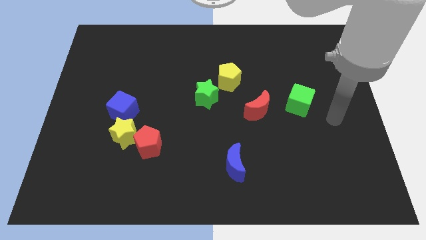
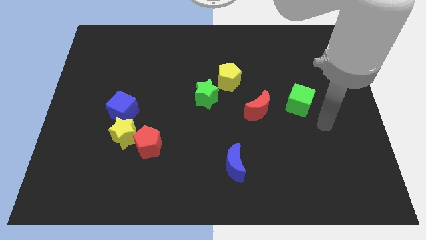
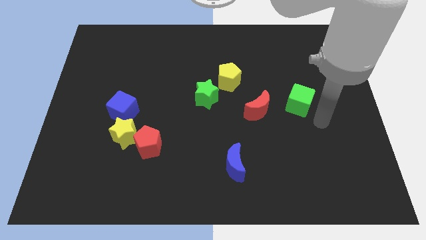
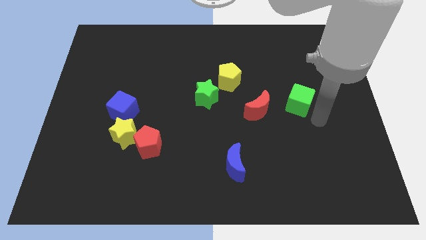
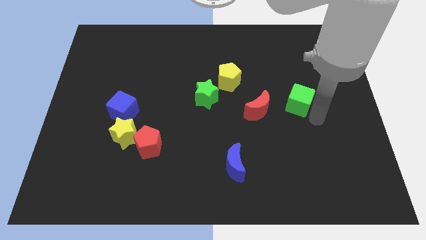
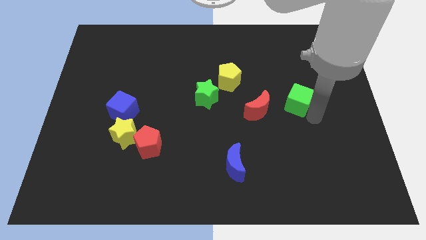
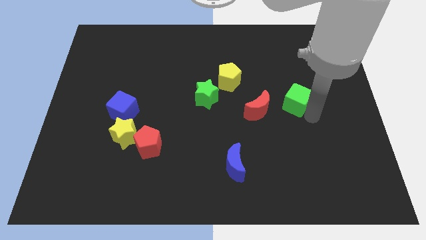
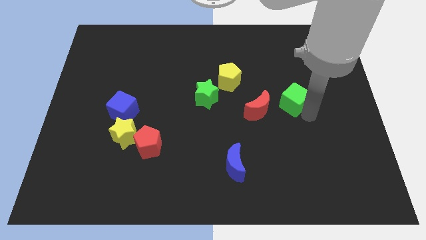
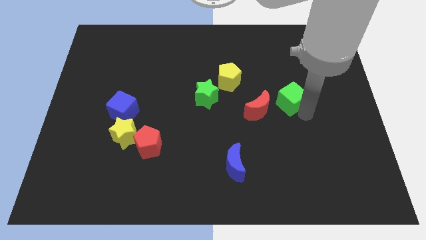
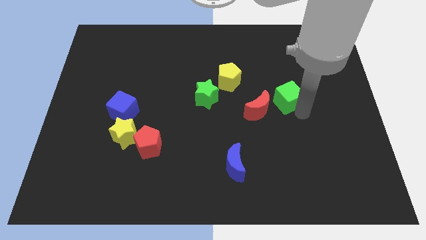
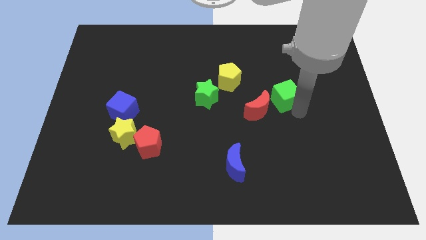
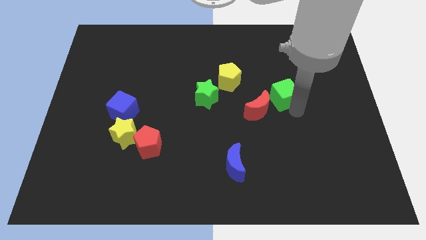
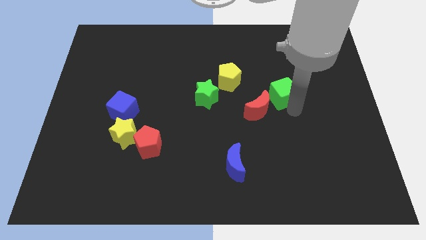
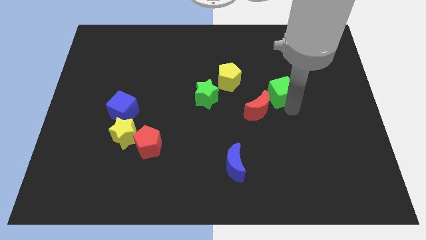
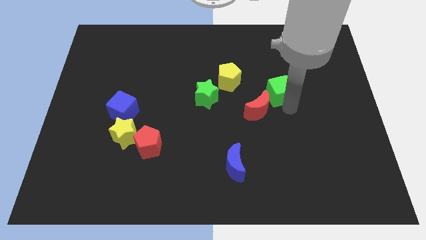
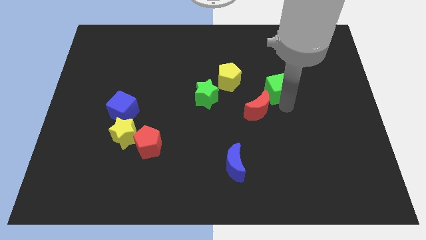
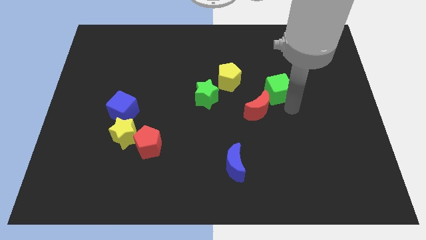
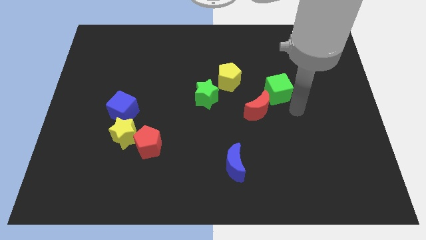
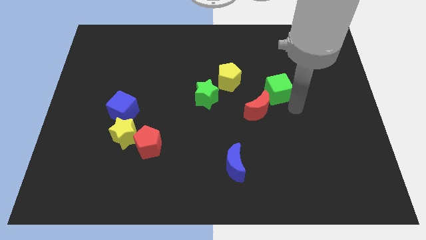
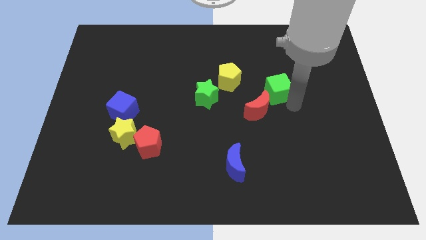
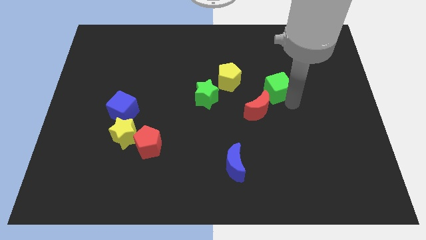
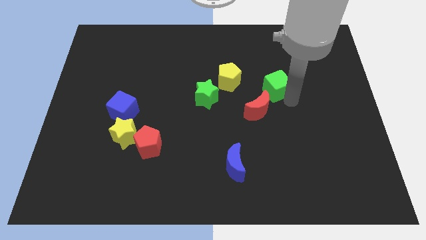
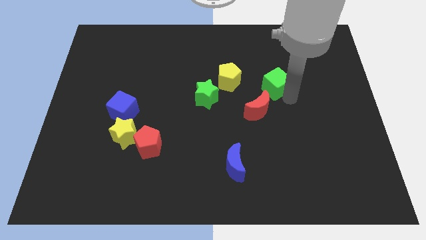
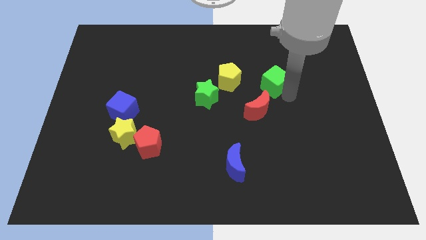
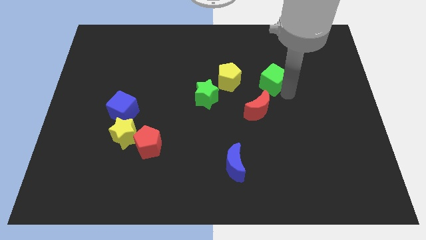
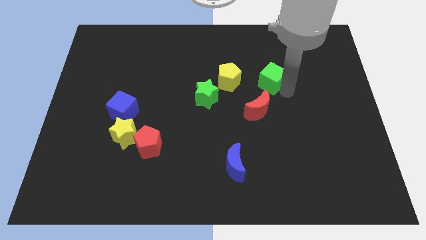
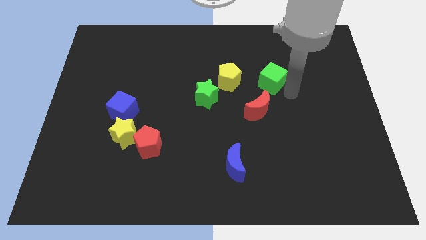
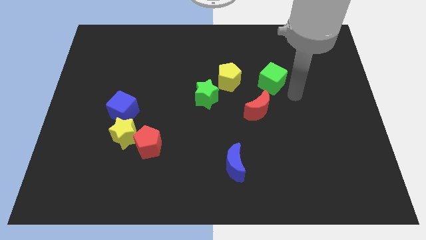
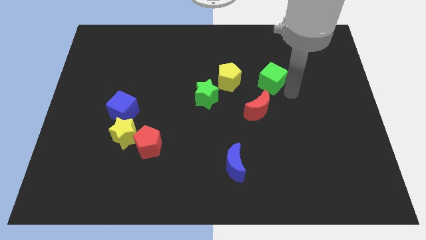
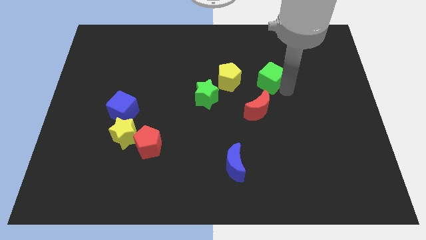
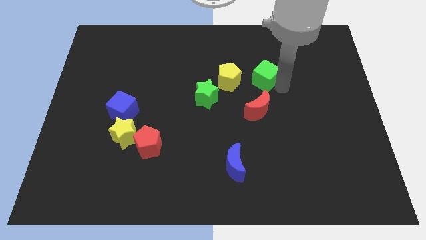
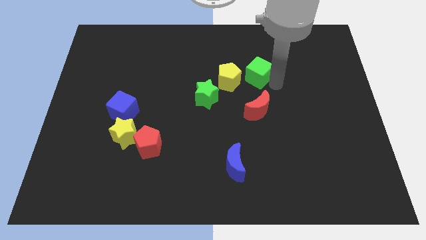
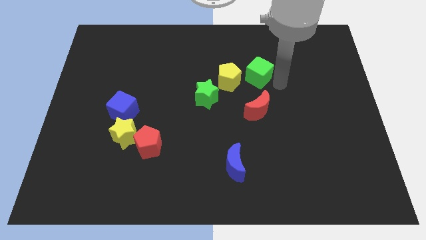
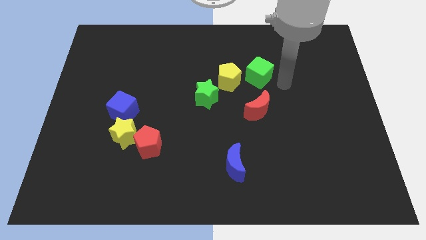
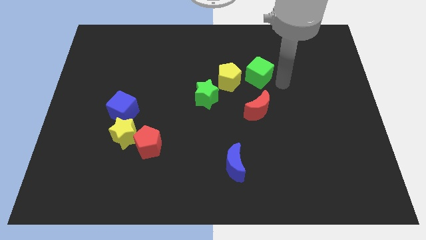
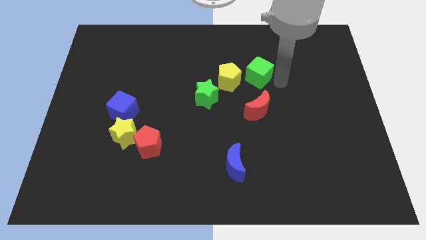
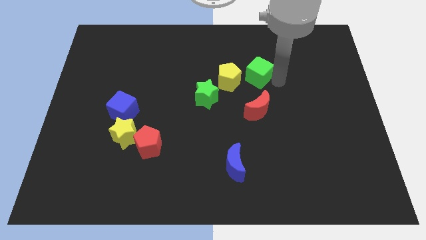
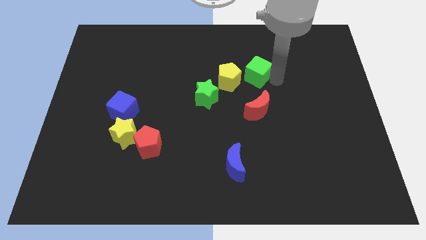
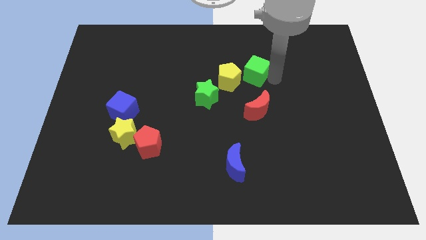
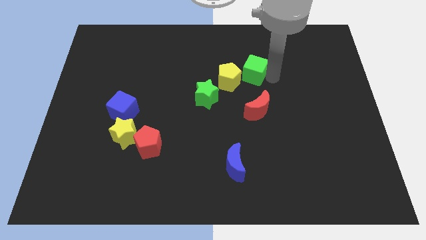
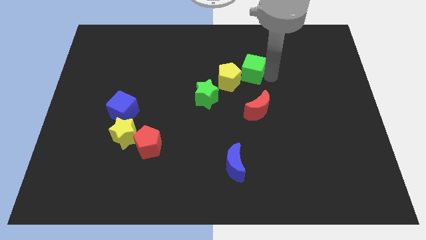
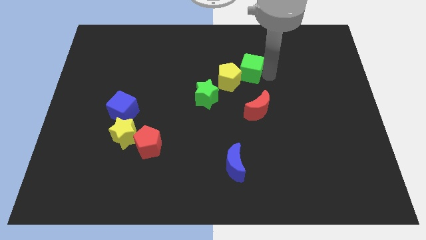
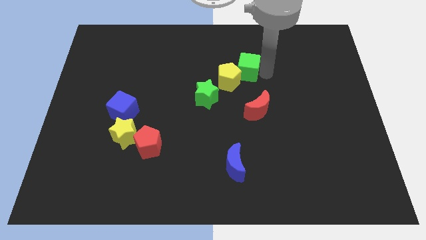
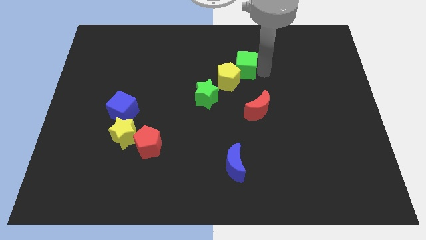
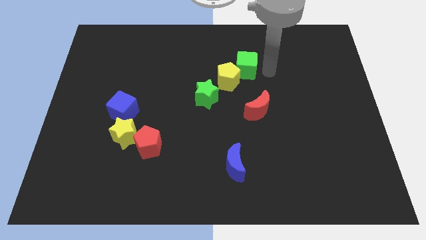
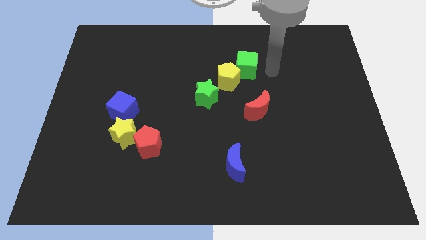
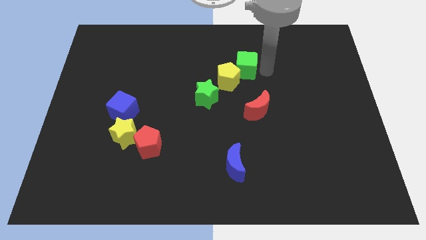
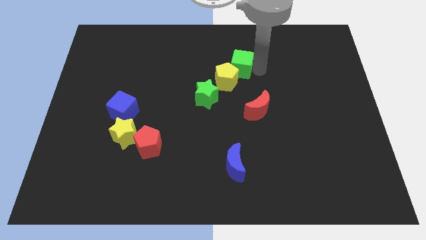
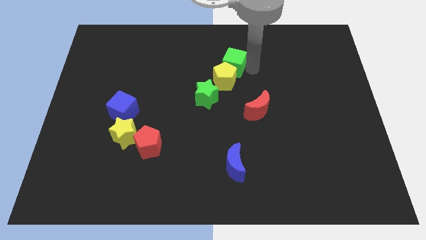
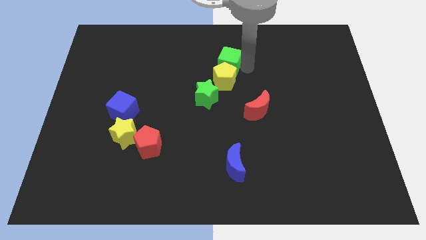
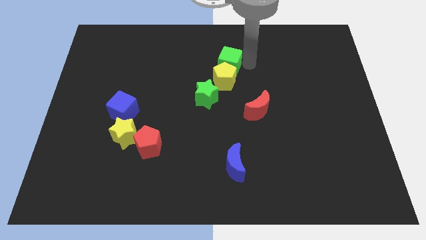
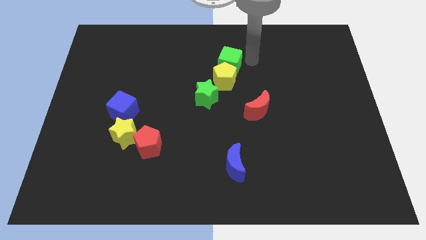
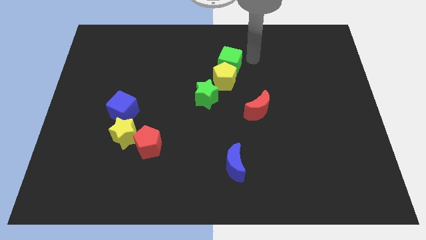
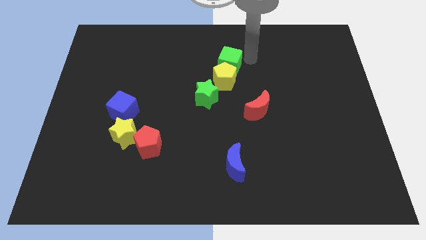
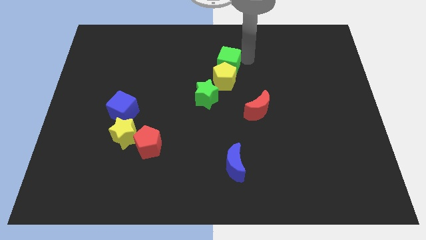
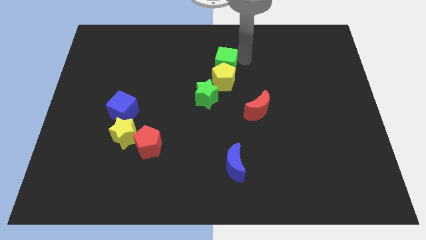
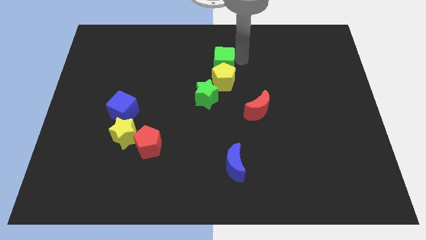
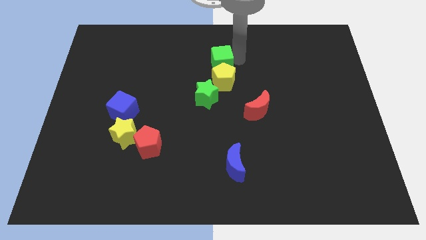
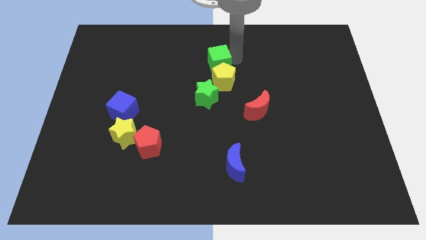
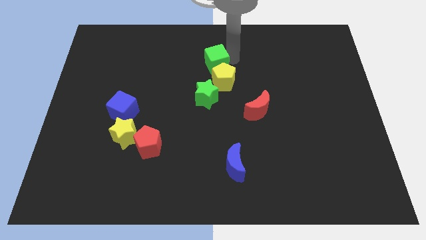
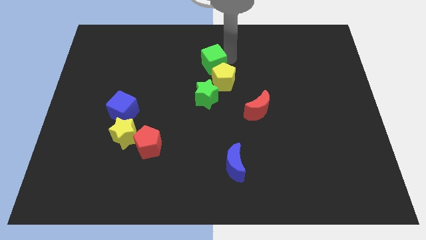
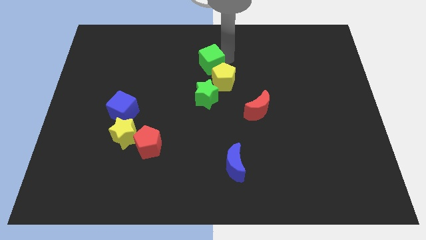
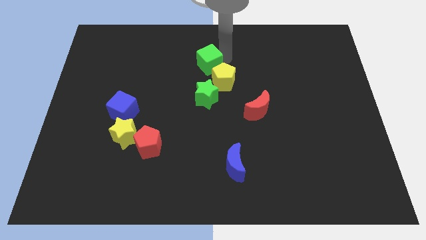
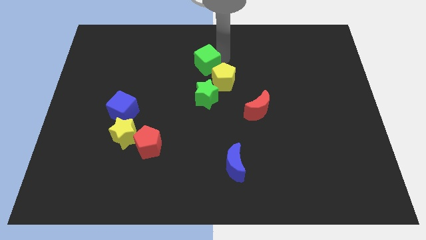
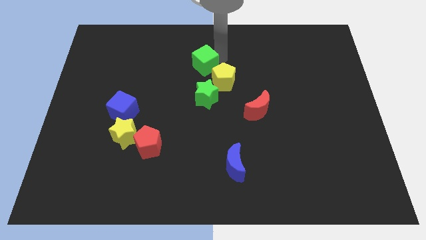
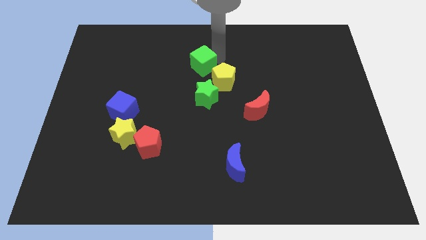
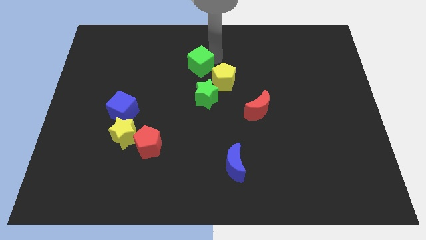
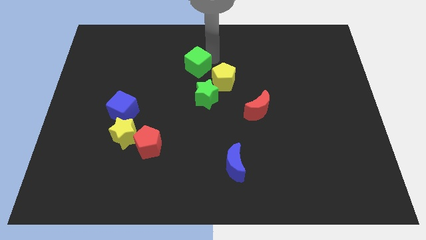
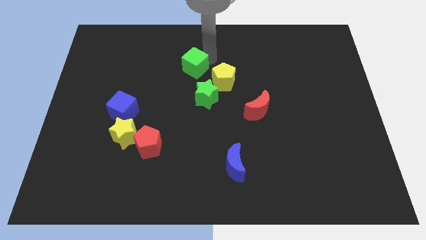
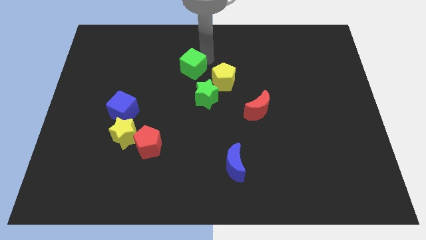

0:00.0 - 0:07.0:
push the green cube to the top left side of the green star
